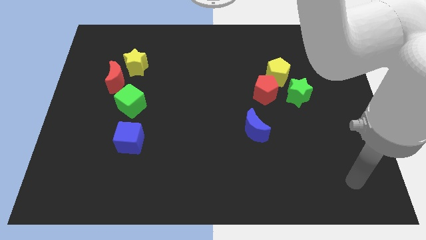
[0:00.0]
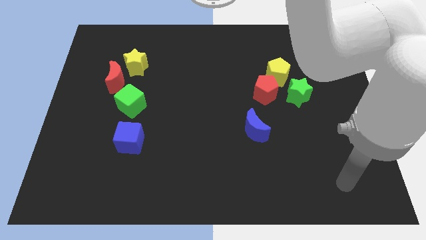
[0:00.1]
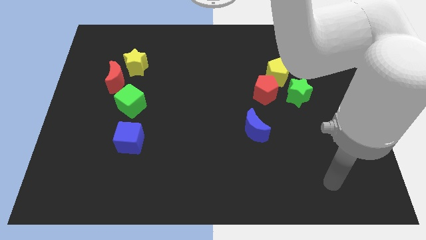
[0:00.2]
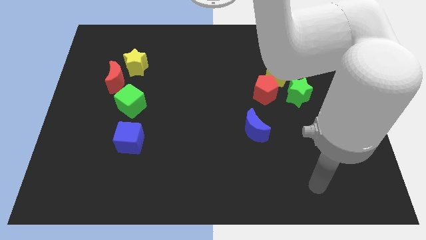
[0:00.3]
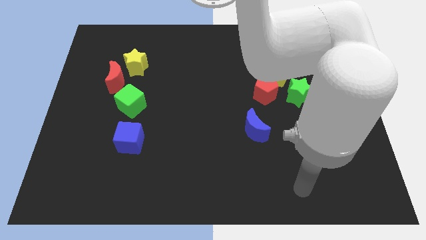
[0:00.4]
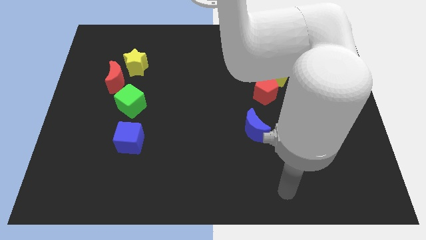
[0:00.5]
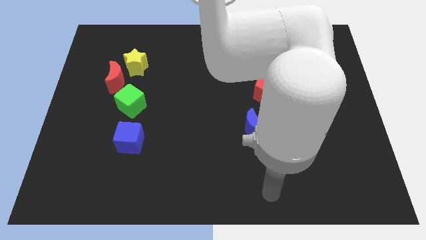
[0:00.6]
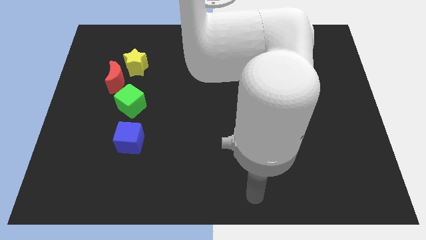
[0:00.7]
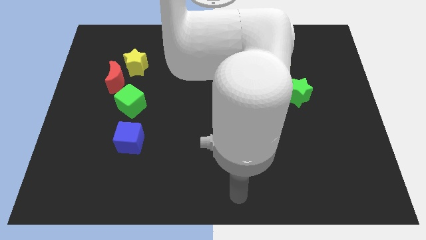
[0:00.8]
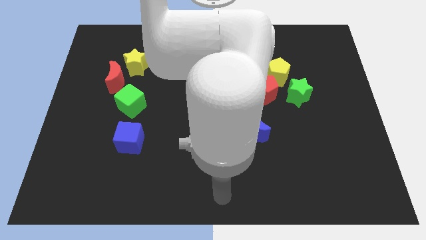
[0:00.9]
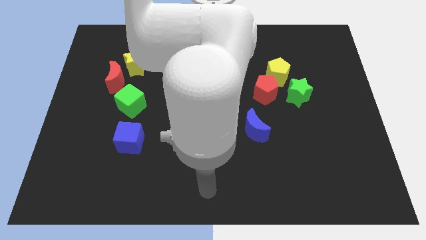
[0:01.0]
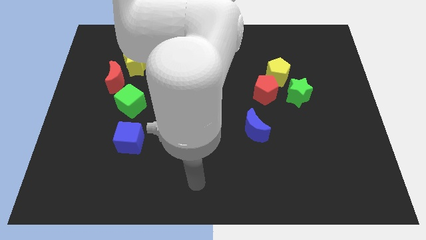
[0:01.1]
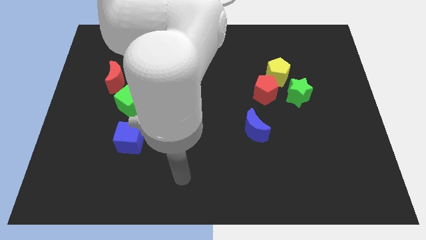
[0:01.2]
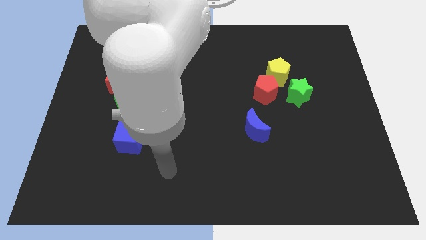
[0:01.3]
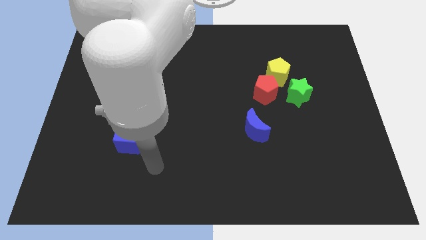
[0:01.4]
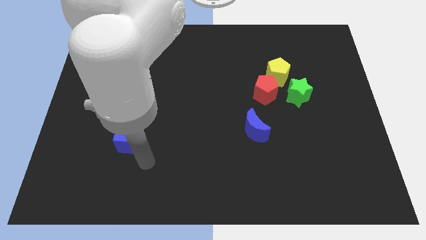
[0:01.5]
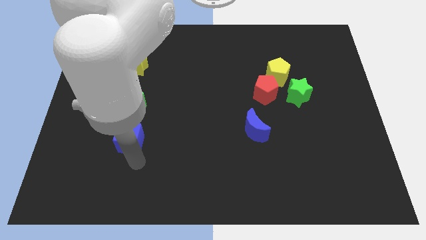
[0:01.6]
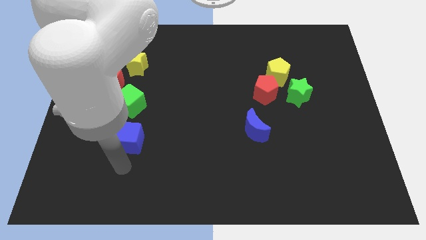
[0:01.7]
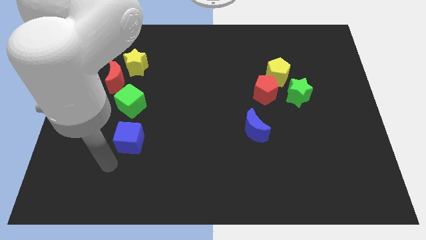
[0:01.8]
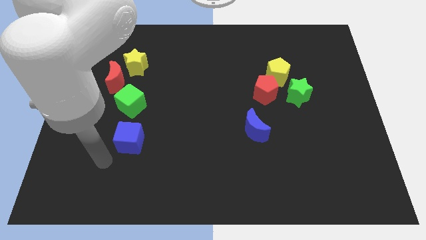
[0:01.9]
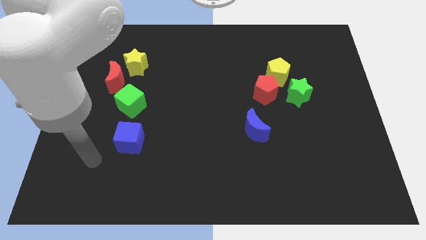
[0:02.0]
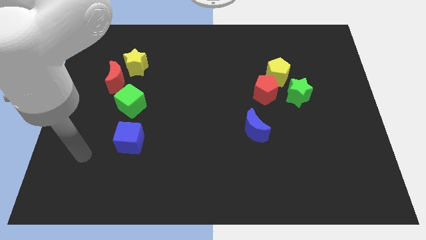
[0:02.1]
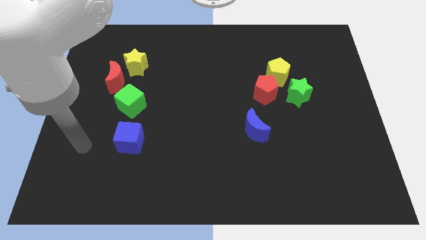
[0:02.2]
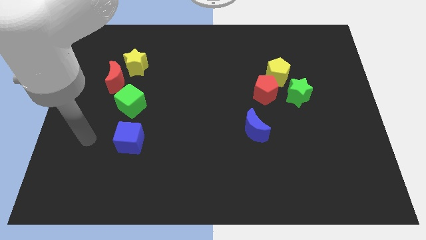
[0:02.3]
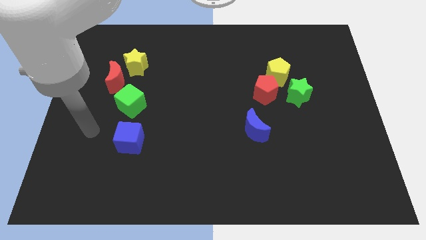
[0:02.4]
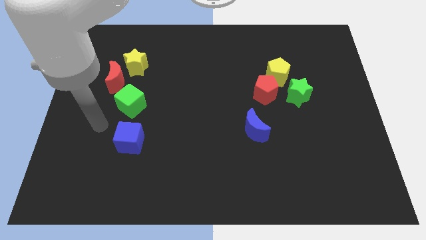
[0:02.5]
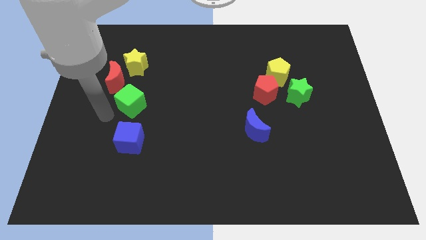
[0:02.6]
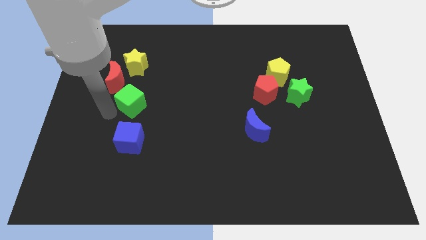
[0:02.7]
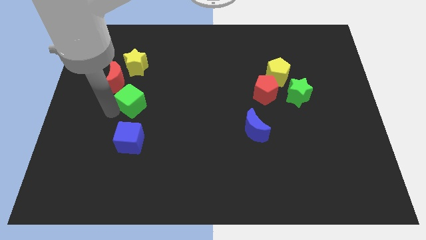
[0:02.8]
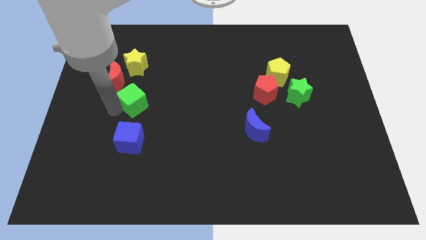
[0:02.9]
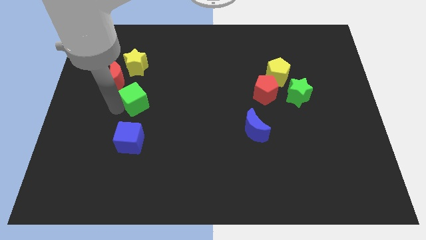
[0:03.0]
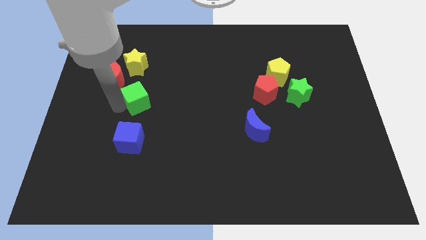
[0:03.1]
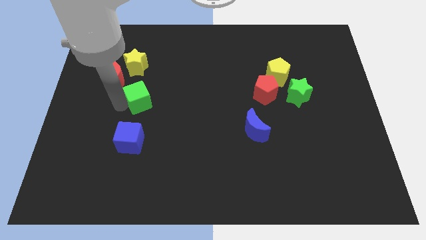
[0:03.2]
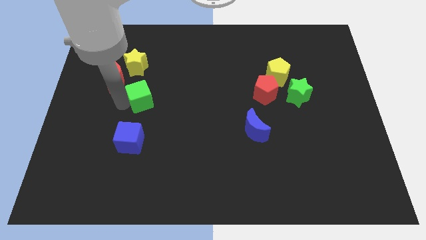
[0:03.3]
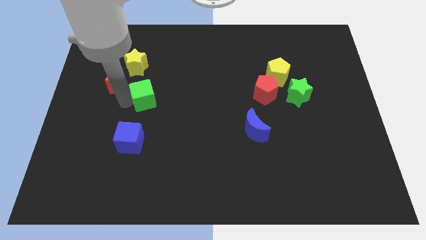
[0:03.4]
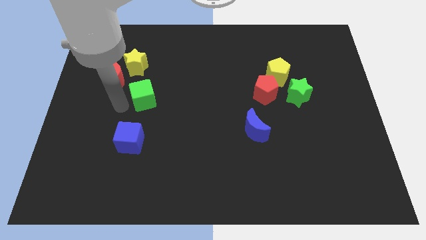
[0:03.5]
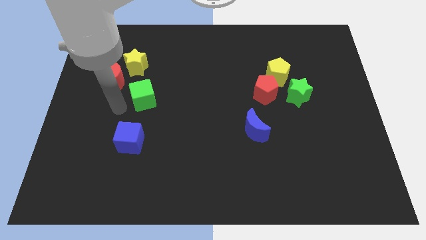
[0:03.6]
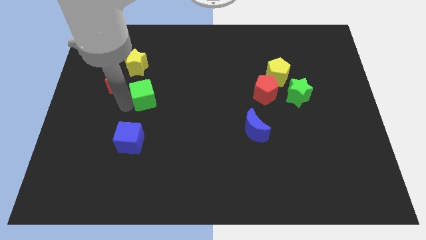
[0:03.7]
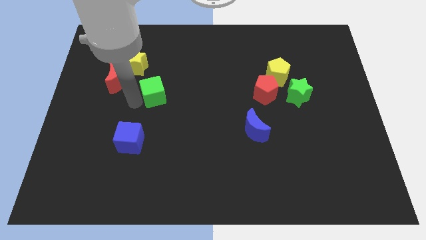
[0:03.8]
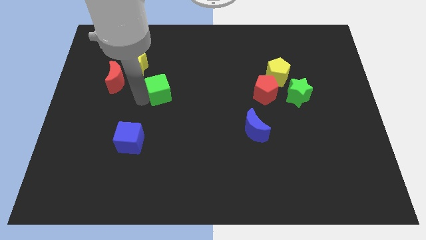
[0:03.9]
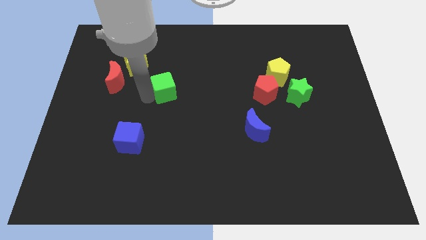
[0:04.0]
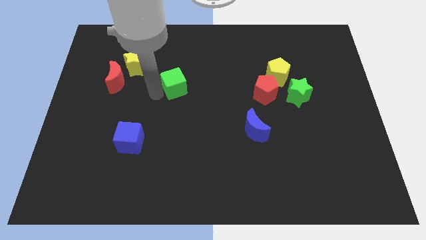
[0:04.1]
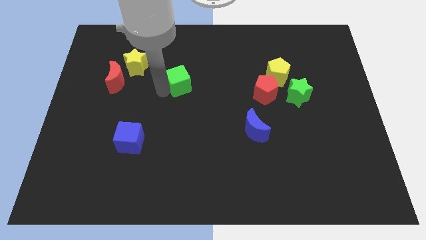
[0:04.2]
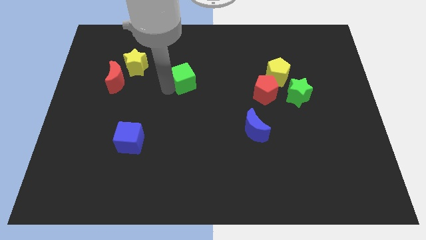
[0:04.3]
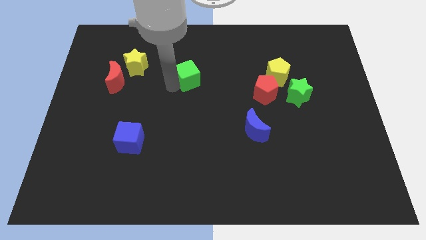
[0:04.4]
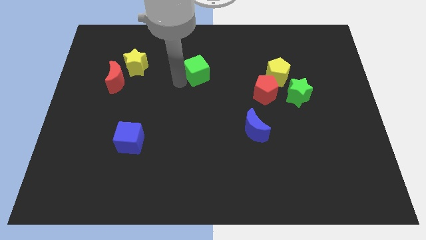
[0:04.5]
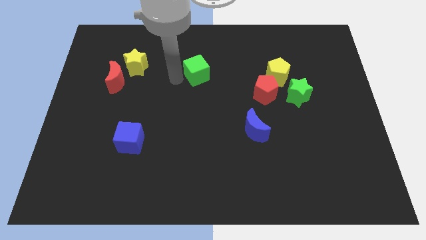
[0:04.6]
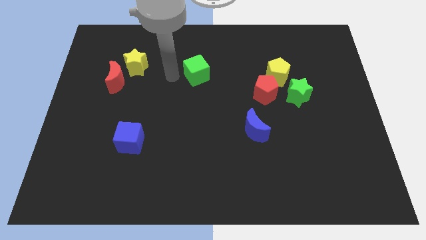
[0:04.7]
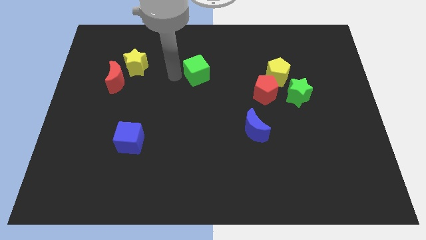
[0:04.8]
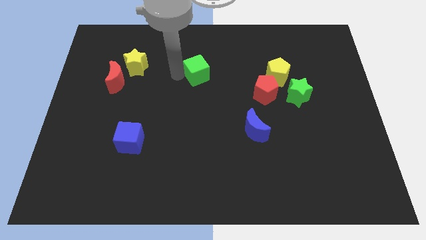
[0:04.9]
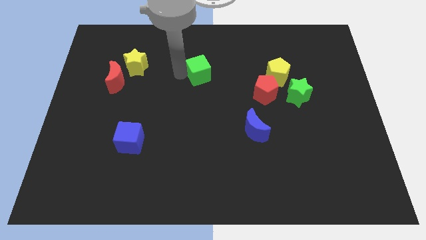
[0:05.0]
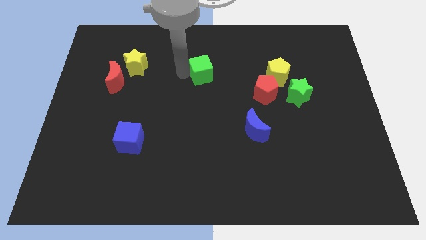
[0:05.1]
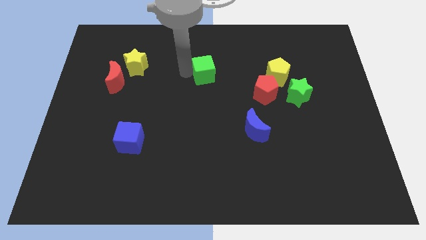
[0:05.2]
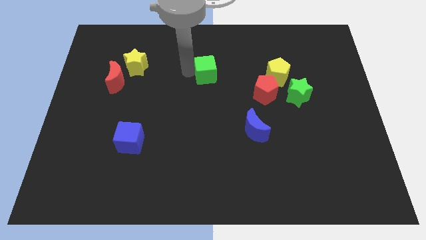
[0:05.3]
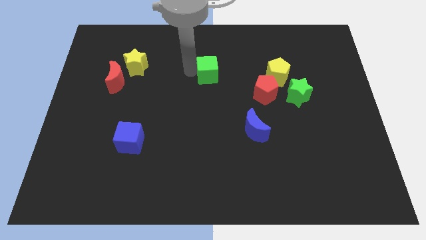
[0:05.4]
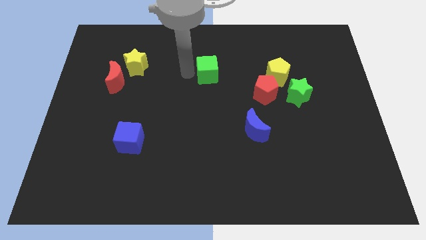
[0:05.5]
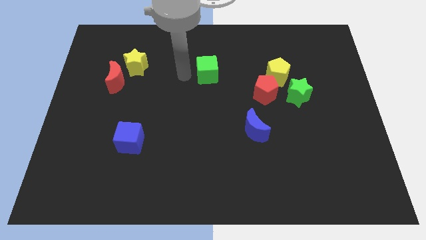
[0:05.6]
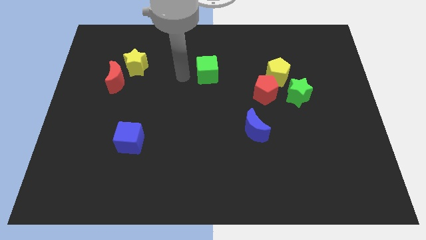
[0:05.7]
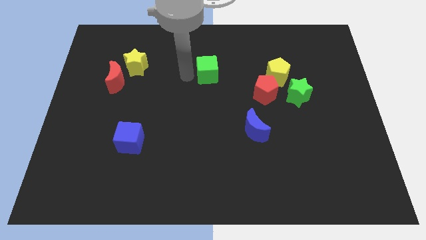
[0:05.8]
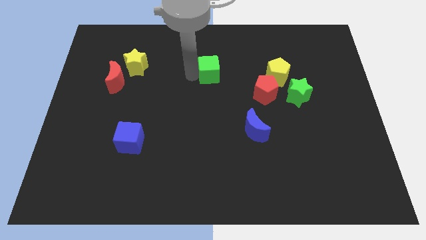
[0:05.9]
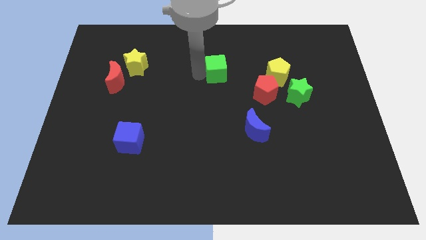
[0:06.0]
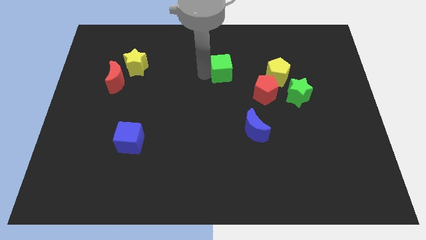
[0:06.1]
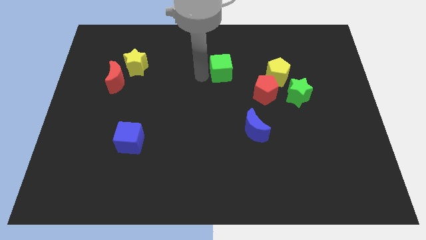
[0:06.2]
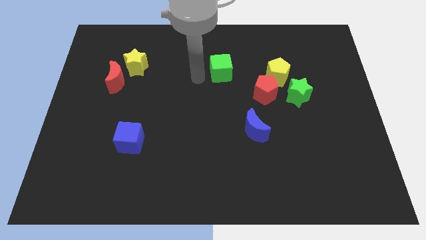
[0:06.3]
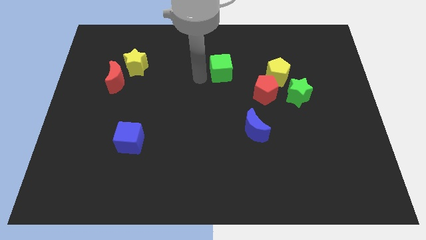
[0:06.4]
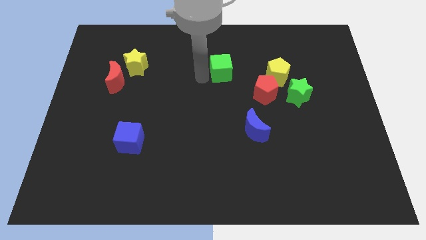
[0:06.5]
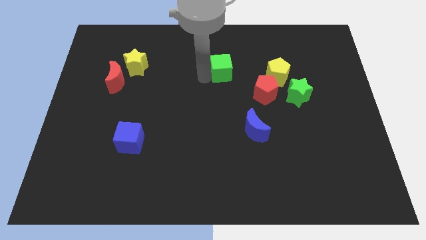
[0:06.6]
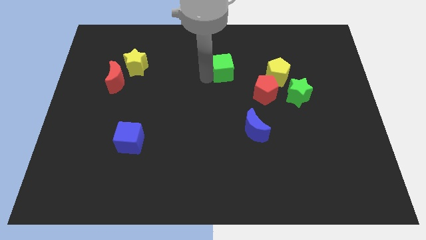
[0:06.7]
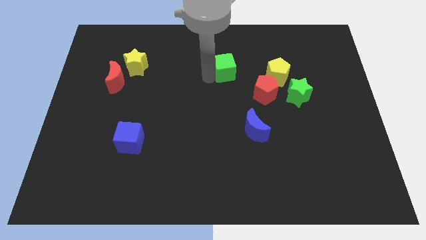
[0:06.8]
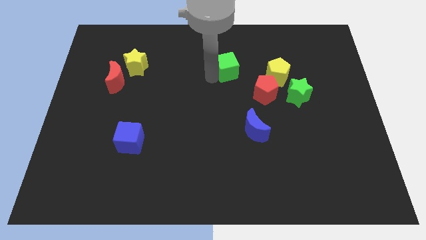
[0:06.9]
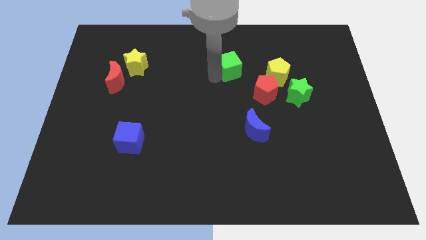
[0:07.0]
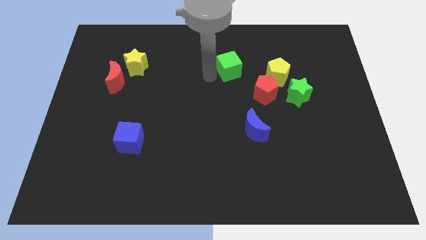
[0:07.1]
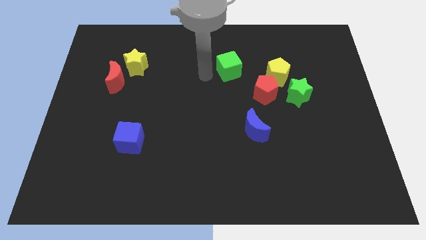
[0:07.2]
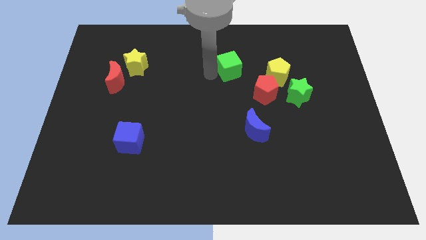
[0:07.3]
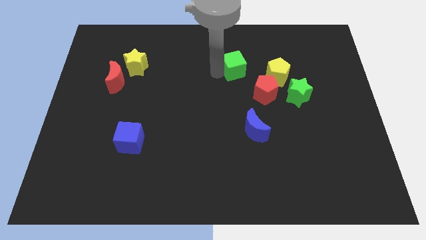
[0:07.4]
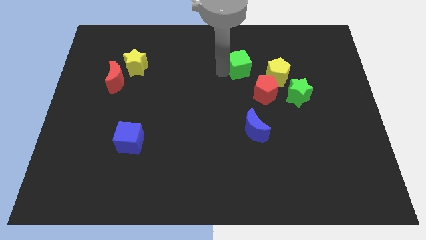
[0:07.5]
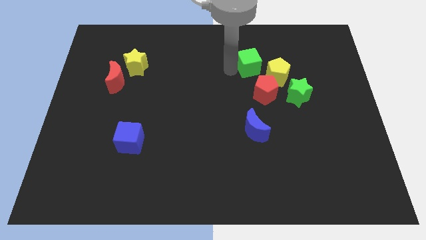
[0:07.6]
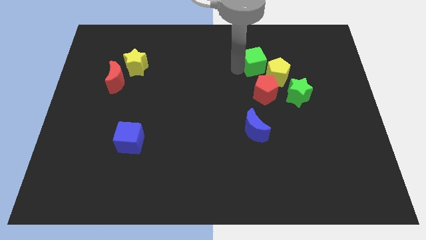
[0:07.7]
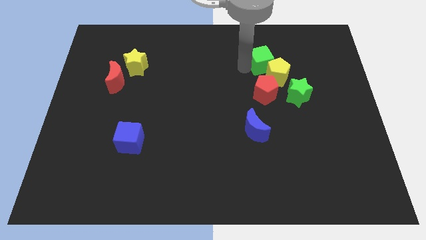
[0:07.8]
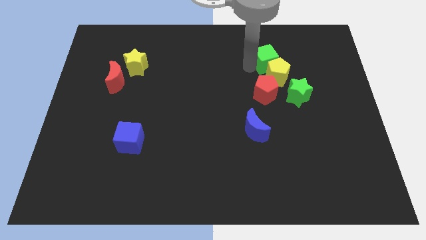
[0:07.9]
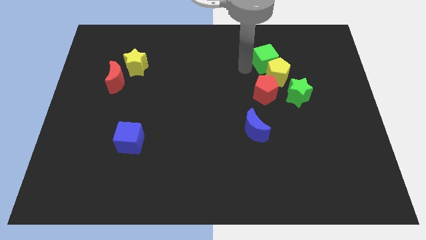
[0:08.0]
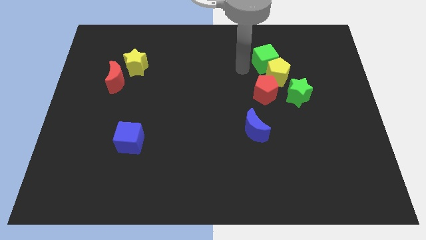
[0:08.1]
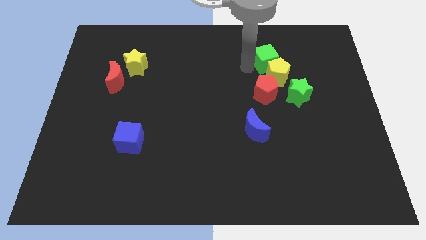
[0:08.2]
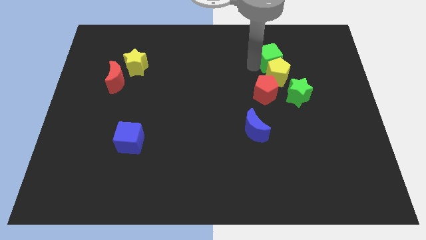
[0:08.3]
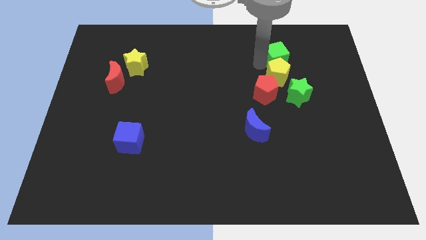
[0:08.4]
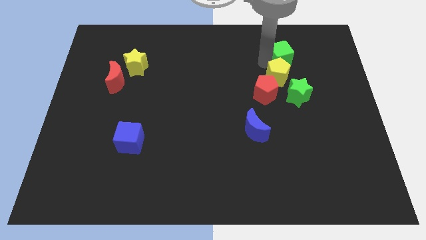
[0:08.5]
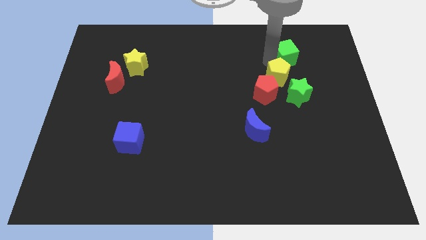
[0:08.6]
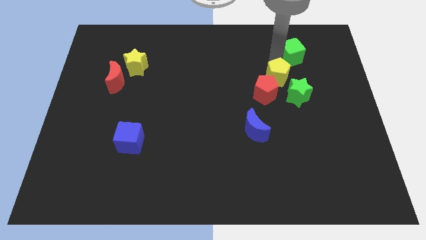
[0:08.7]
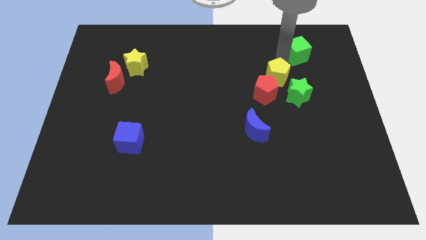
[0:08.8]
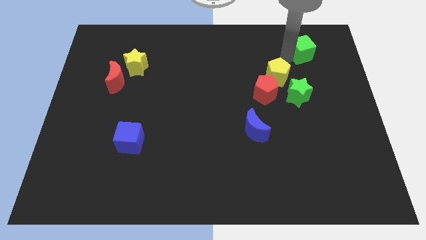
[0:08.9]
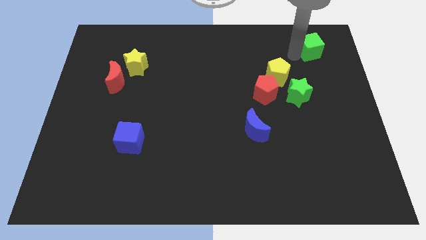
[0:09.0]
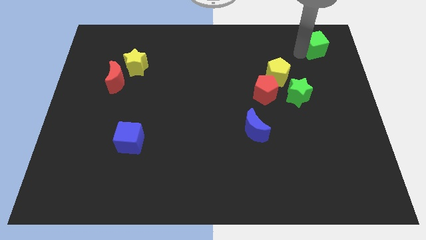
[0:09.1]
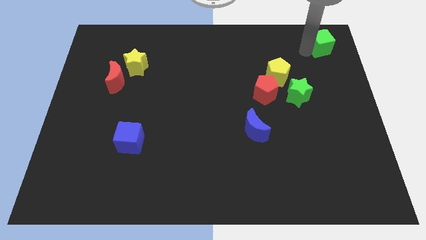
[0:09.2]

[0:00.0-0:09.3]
slide the green cube to the top right
